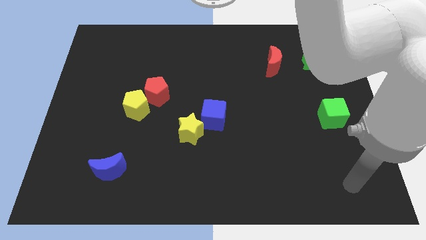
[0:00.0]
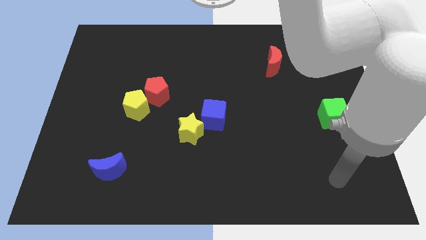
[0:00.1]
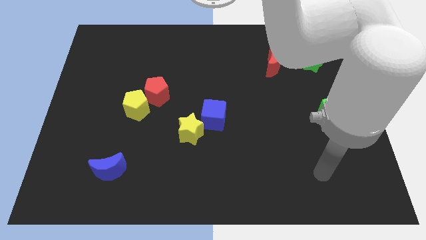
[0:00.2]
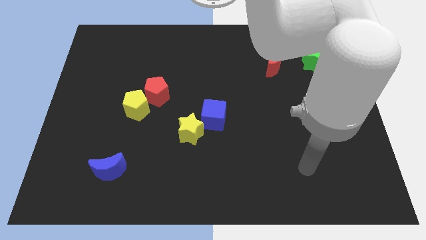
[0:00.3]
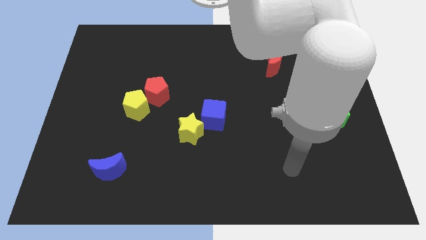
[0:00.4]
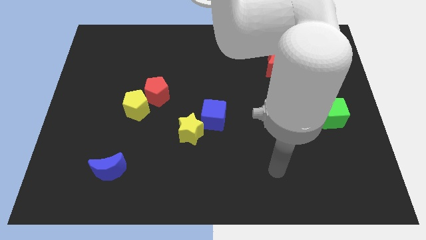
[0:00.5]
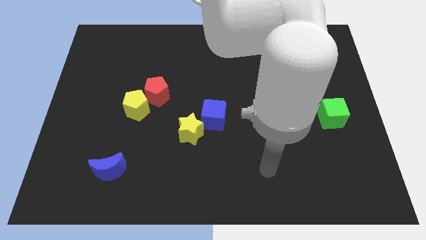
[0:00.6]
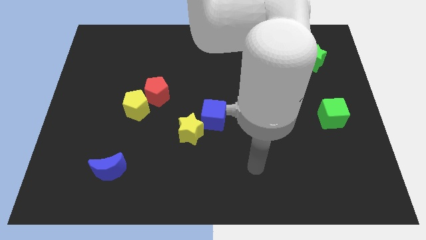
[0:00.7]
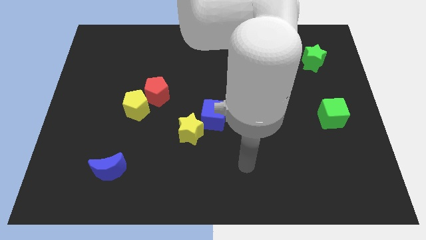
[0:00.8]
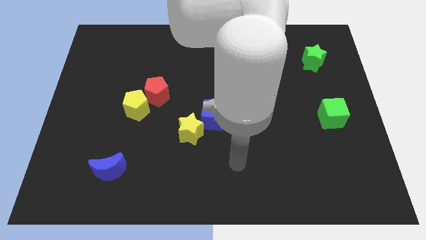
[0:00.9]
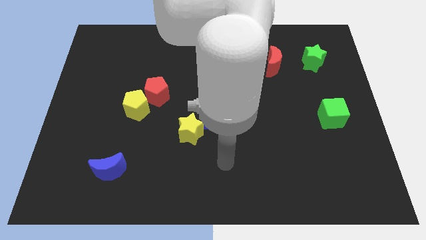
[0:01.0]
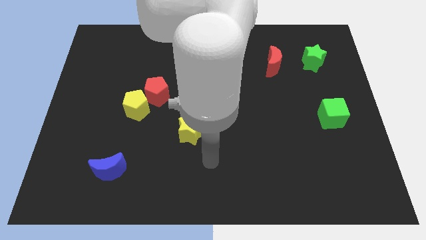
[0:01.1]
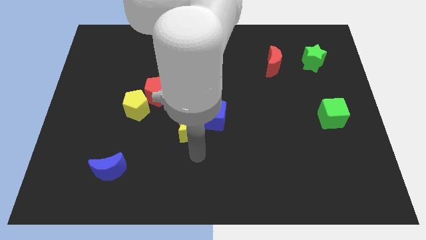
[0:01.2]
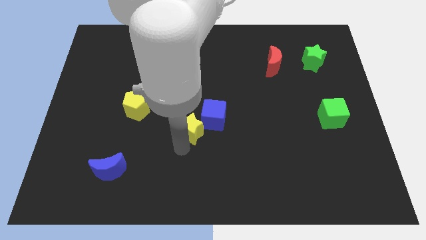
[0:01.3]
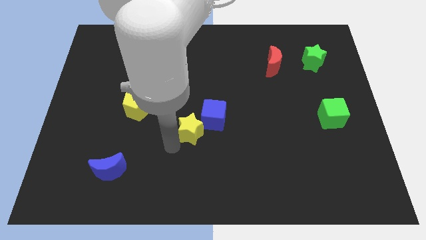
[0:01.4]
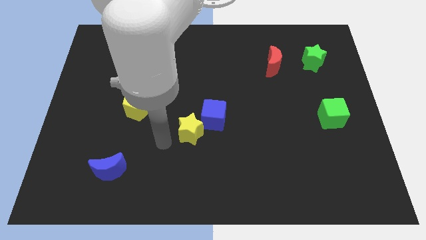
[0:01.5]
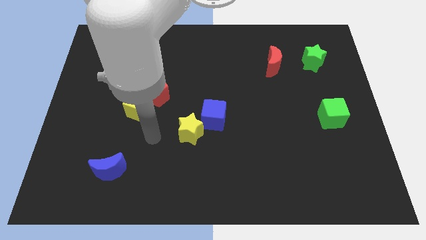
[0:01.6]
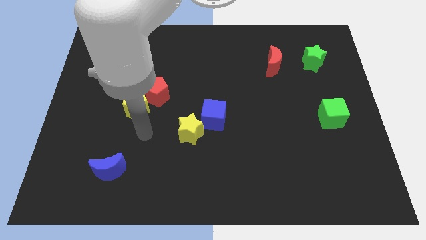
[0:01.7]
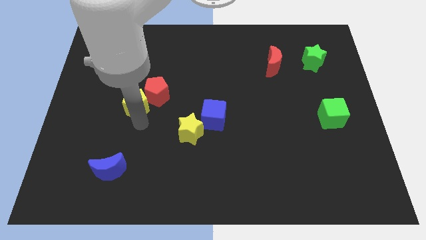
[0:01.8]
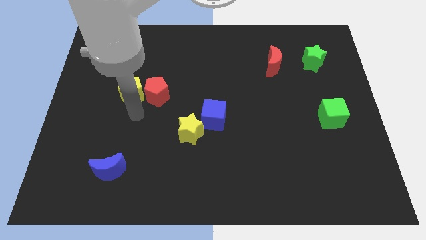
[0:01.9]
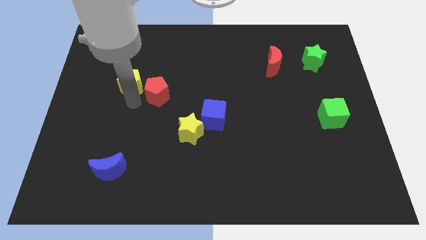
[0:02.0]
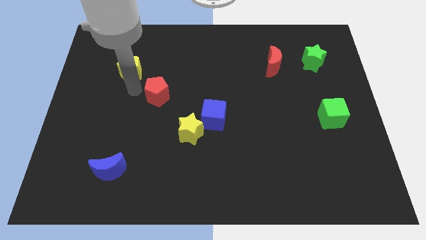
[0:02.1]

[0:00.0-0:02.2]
pull the red pentagon apart from the yellow pentagon

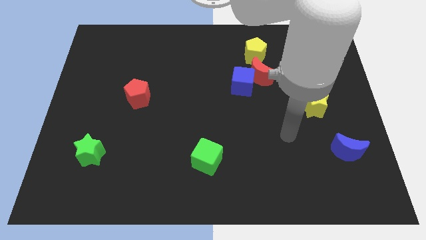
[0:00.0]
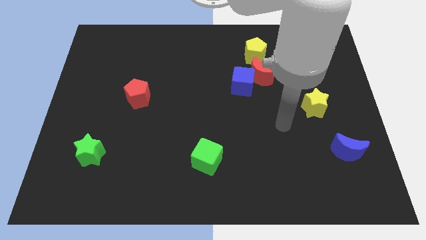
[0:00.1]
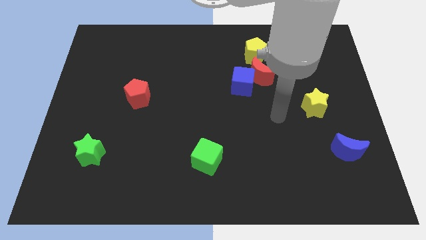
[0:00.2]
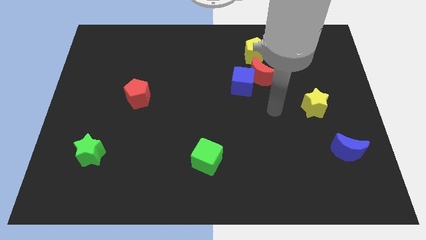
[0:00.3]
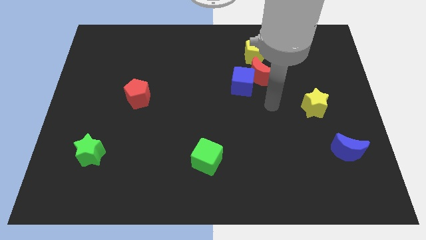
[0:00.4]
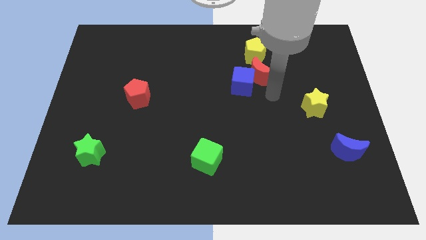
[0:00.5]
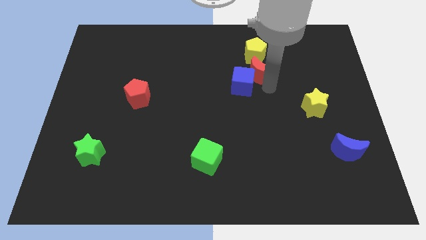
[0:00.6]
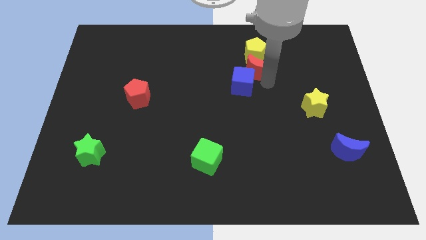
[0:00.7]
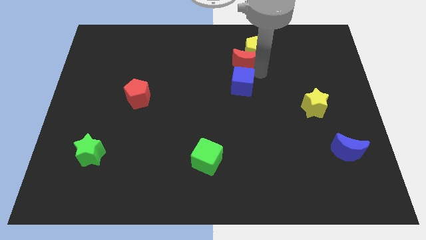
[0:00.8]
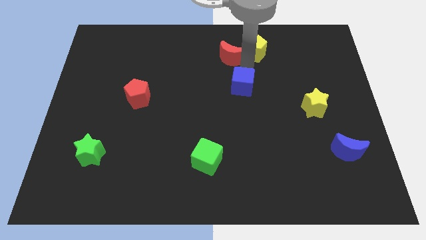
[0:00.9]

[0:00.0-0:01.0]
pull the blue cube apart from the red moon

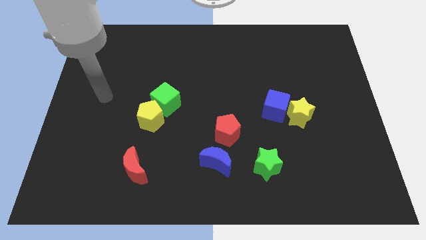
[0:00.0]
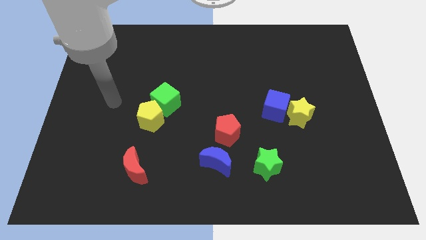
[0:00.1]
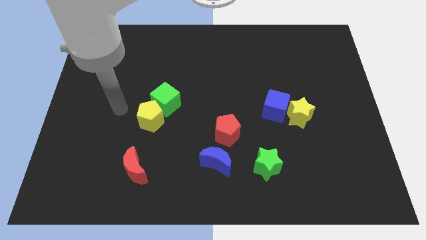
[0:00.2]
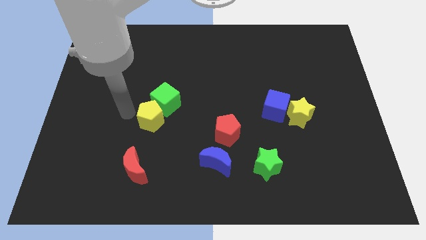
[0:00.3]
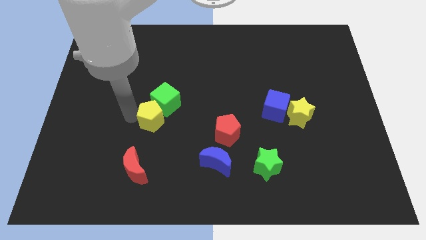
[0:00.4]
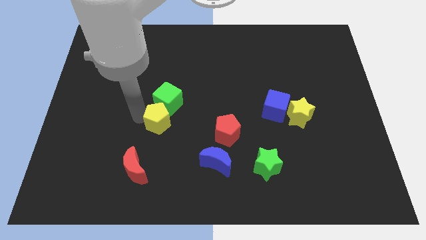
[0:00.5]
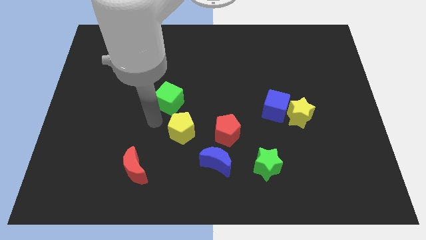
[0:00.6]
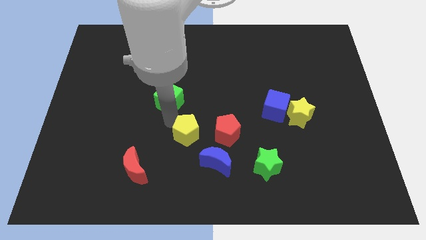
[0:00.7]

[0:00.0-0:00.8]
move the green cube away from the yellow pentagon

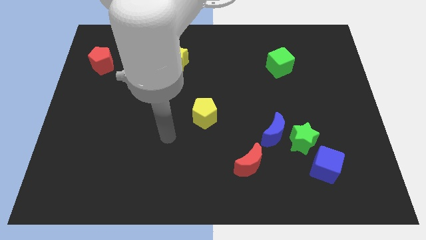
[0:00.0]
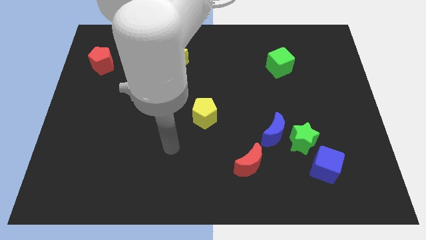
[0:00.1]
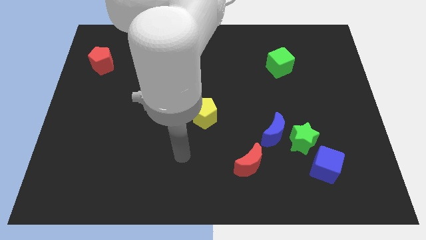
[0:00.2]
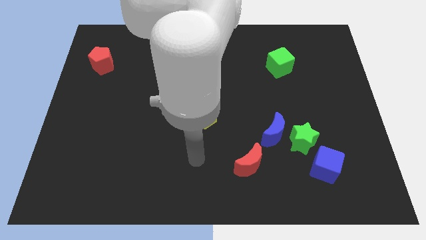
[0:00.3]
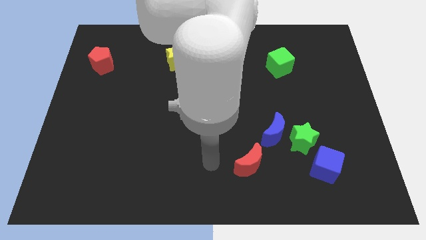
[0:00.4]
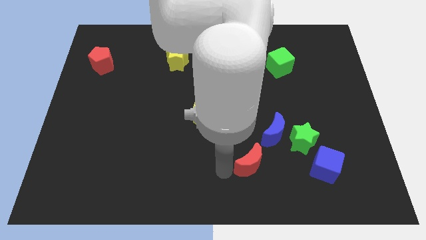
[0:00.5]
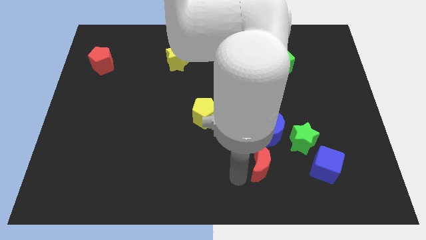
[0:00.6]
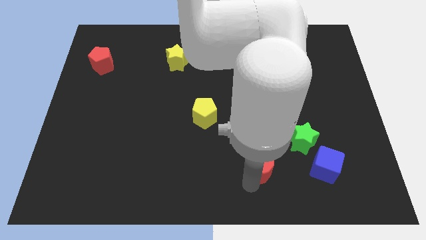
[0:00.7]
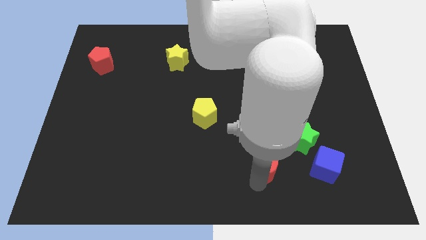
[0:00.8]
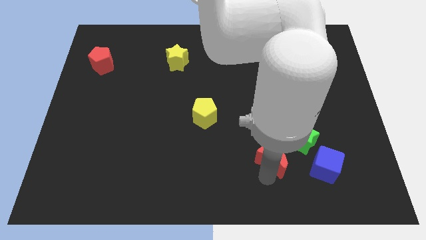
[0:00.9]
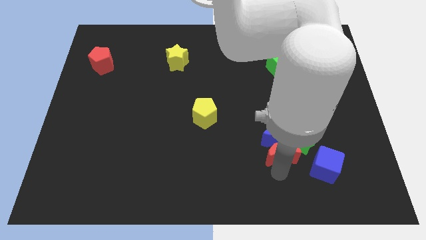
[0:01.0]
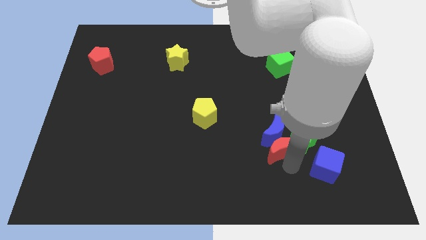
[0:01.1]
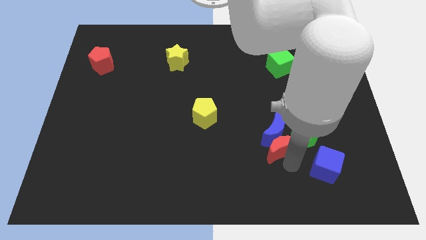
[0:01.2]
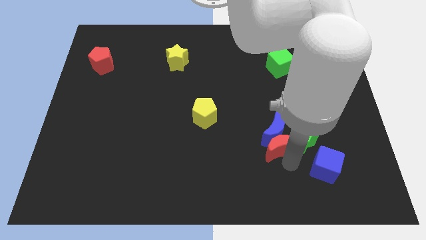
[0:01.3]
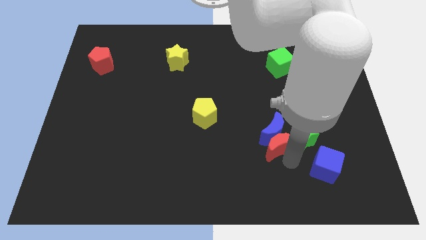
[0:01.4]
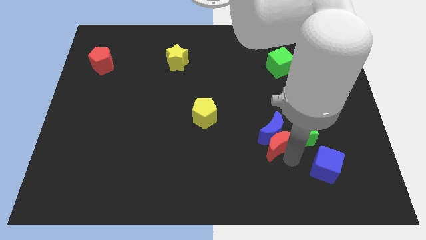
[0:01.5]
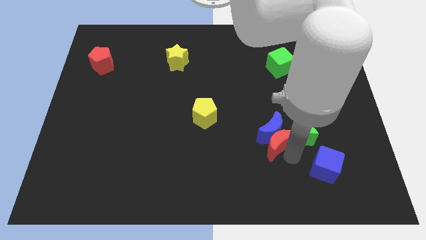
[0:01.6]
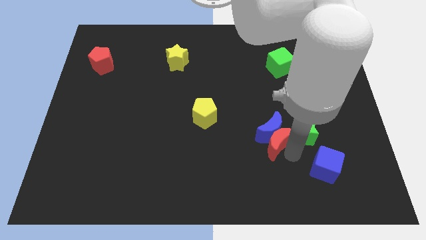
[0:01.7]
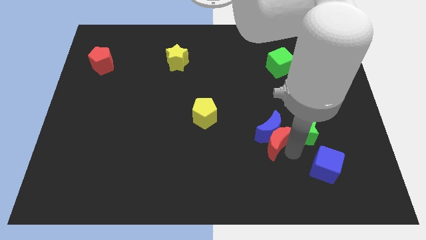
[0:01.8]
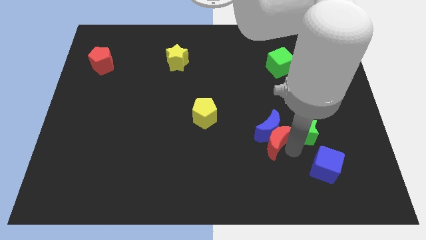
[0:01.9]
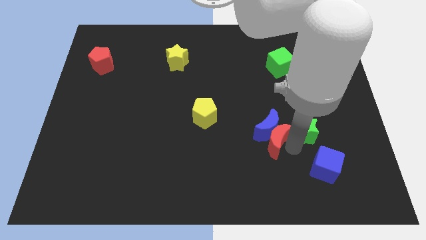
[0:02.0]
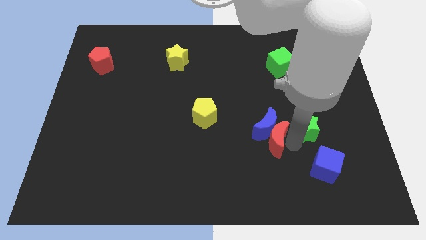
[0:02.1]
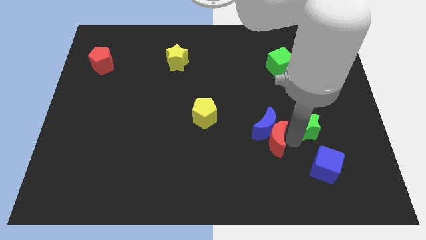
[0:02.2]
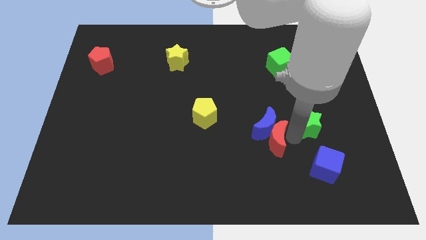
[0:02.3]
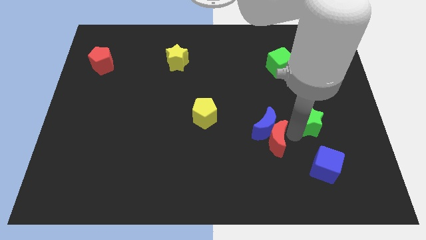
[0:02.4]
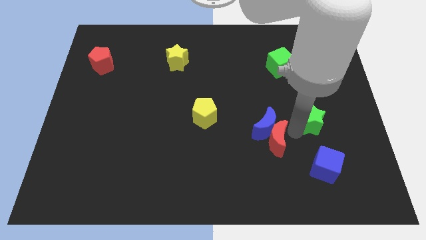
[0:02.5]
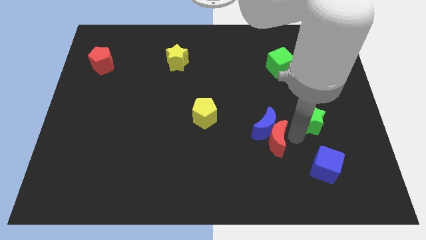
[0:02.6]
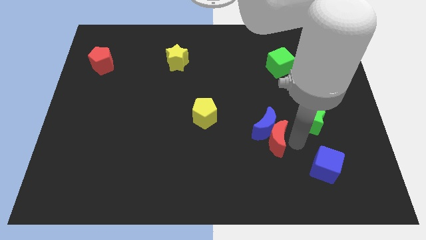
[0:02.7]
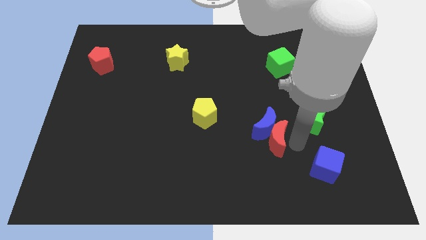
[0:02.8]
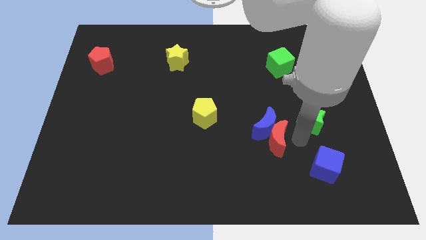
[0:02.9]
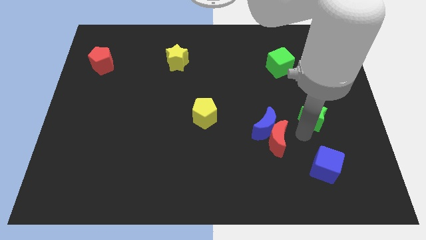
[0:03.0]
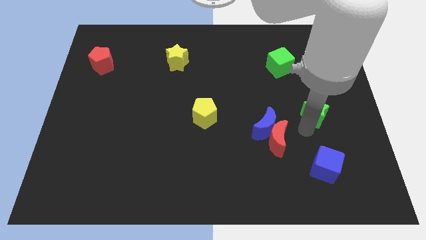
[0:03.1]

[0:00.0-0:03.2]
separate the green star from the blue moon and blue cube

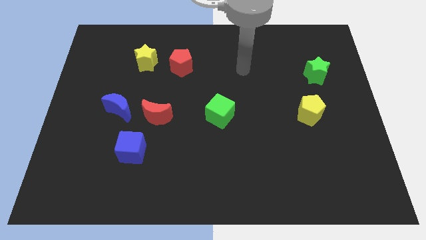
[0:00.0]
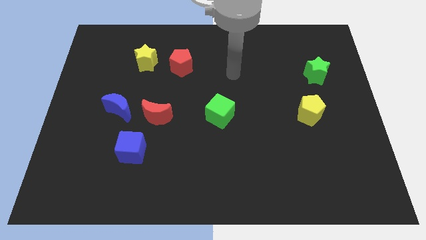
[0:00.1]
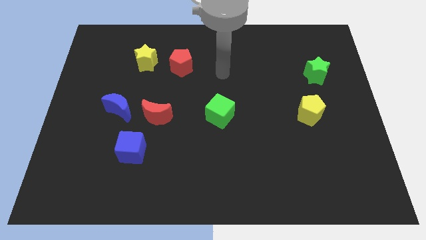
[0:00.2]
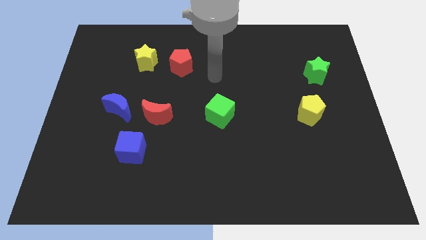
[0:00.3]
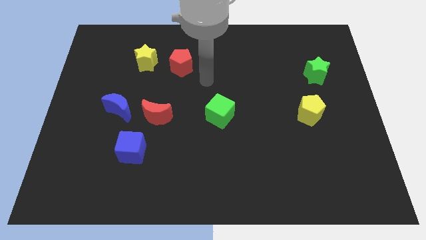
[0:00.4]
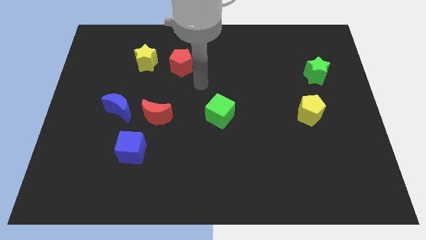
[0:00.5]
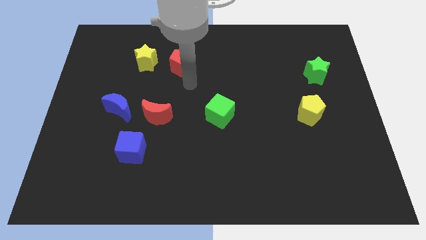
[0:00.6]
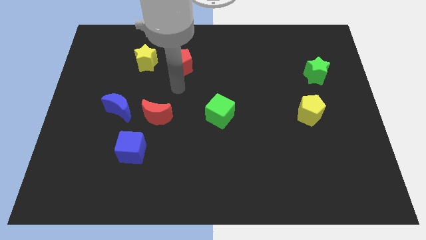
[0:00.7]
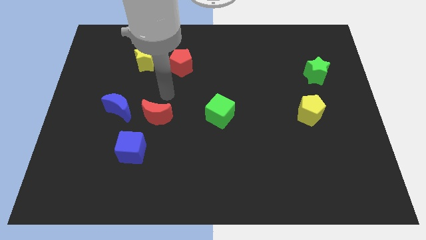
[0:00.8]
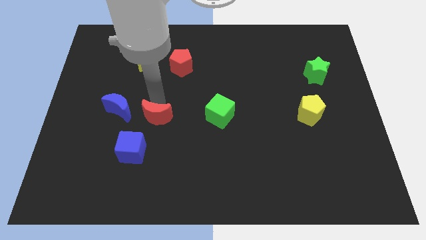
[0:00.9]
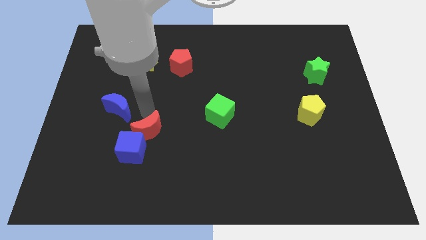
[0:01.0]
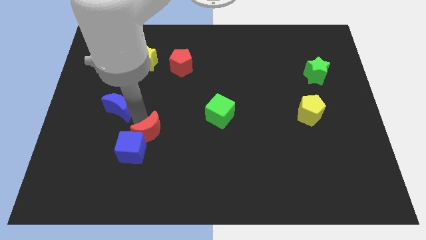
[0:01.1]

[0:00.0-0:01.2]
move the blue moon away from the red moon

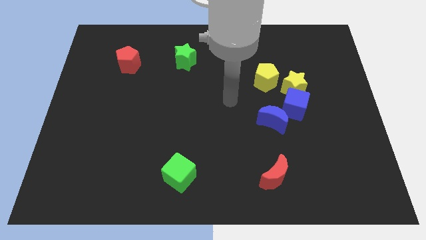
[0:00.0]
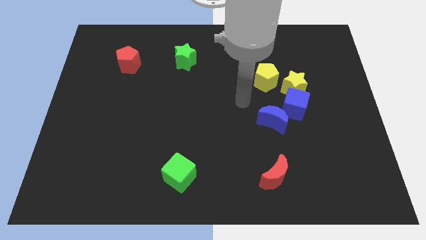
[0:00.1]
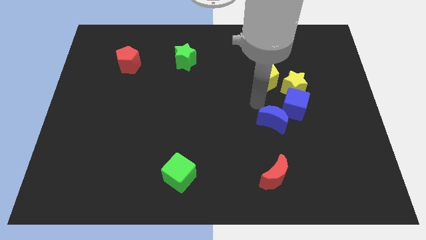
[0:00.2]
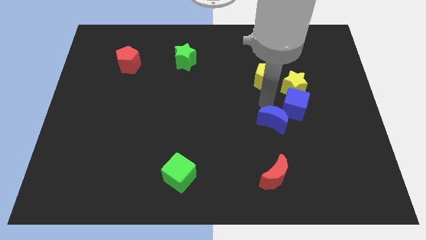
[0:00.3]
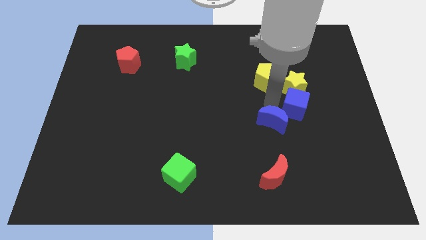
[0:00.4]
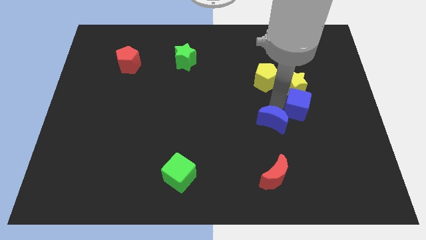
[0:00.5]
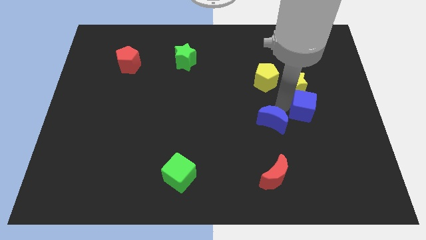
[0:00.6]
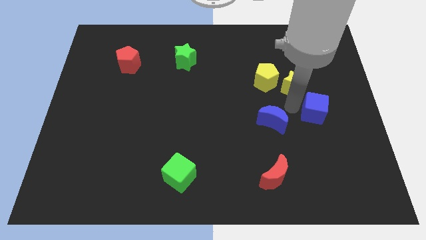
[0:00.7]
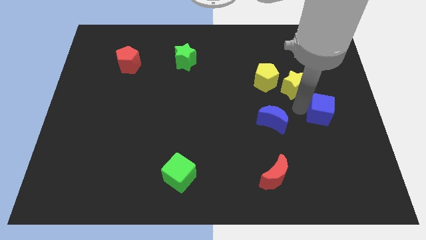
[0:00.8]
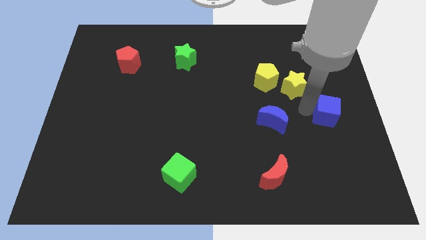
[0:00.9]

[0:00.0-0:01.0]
pull the blue cube apart from the yellow star and blue moon
